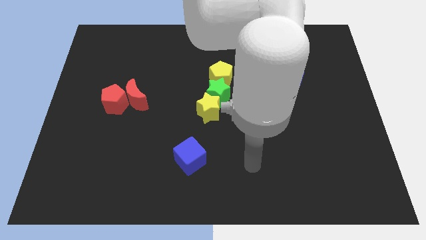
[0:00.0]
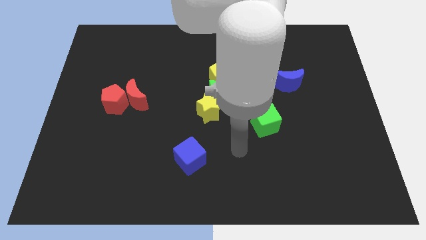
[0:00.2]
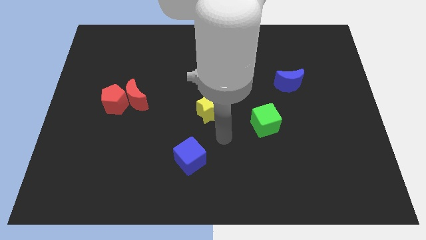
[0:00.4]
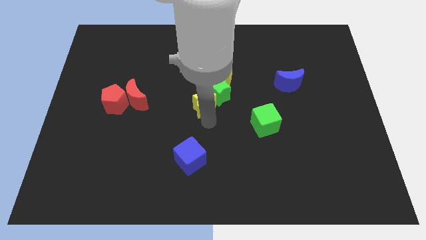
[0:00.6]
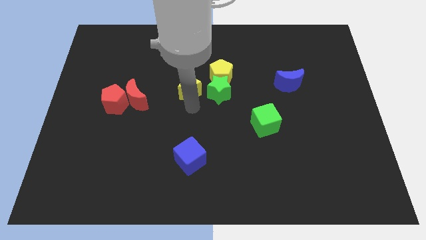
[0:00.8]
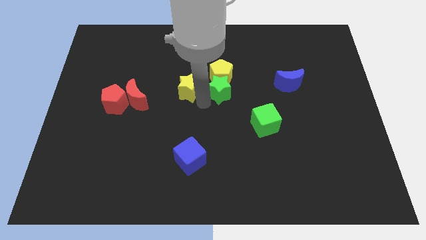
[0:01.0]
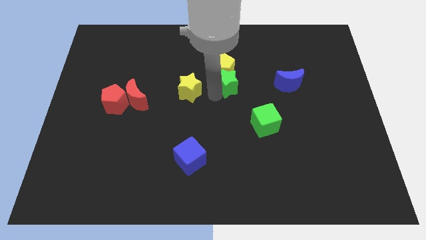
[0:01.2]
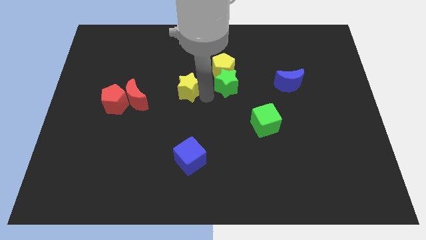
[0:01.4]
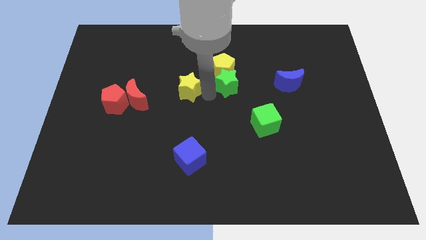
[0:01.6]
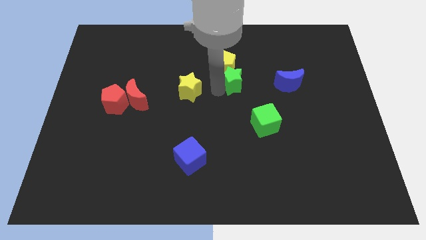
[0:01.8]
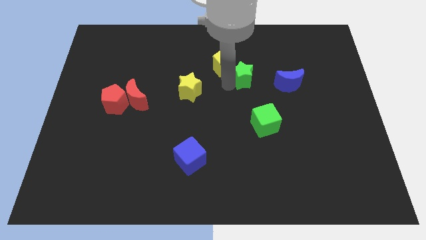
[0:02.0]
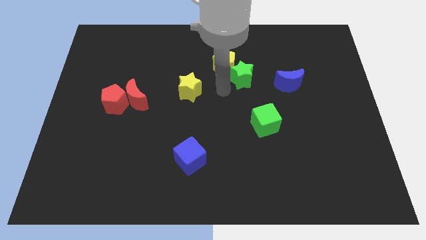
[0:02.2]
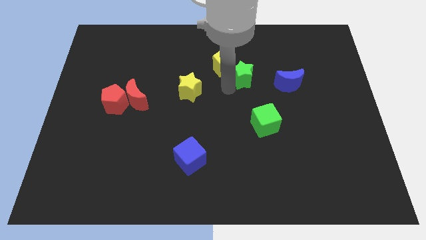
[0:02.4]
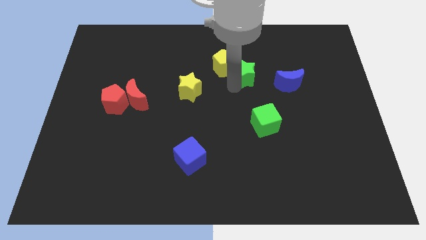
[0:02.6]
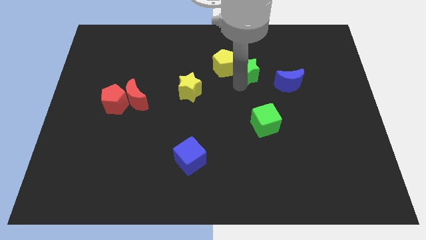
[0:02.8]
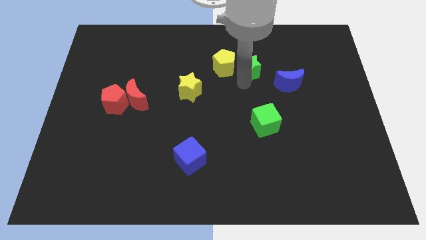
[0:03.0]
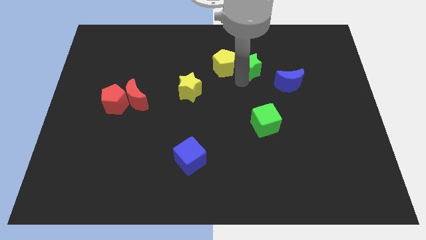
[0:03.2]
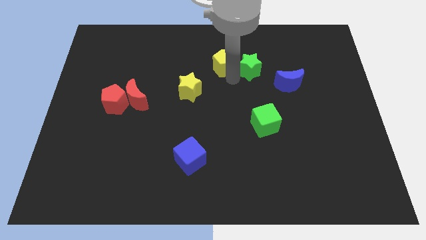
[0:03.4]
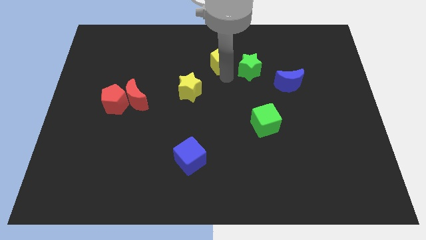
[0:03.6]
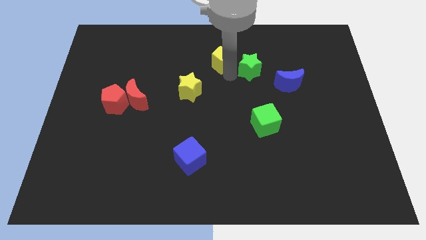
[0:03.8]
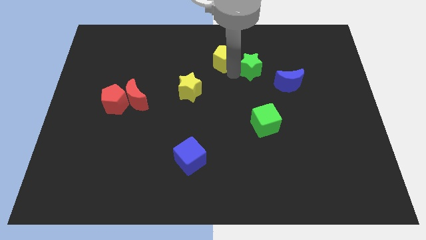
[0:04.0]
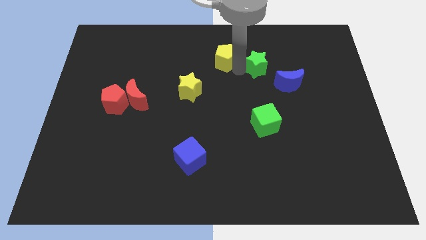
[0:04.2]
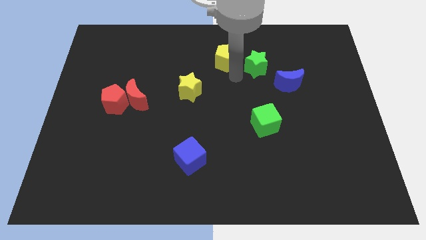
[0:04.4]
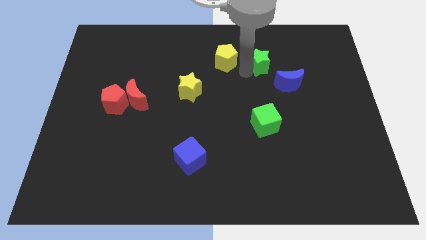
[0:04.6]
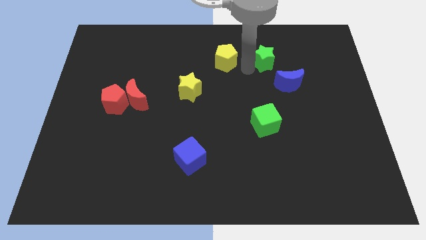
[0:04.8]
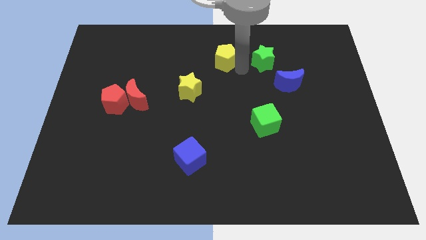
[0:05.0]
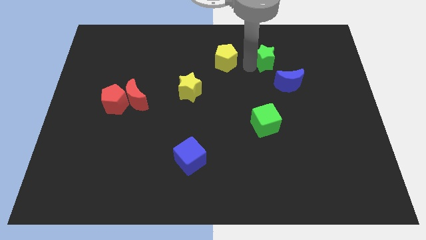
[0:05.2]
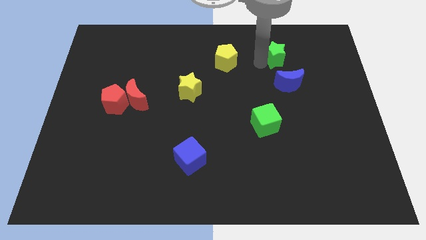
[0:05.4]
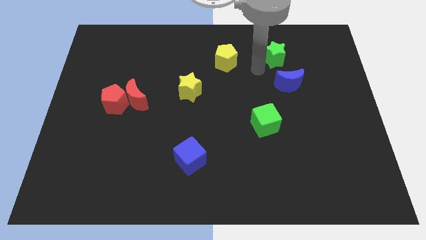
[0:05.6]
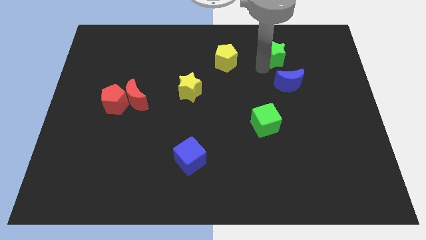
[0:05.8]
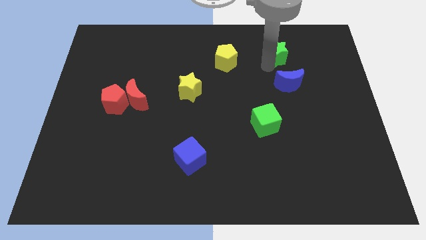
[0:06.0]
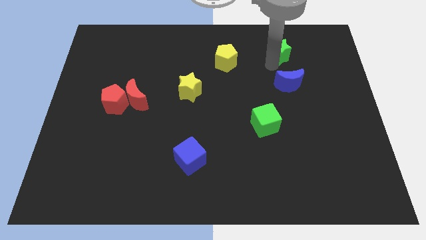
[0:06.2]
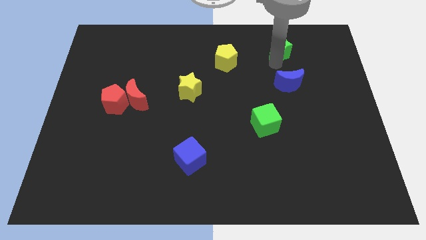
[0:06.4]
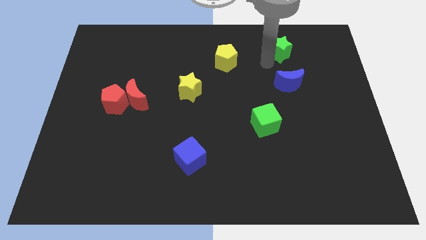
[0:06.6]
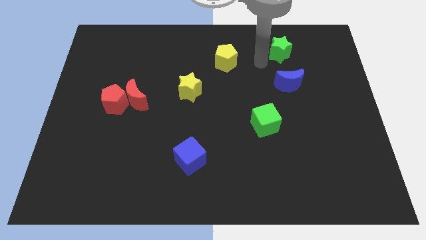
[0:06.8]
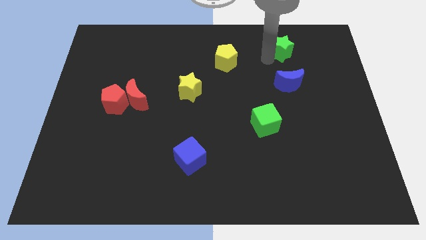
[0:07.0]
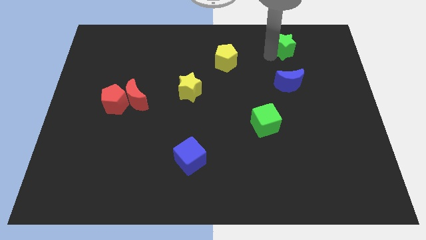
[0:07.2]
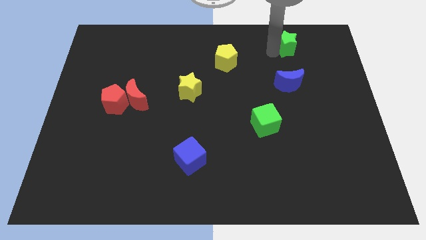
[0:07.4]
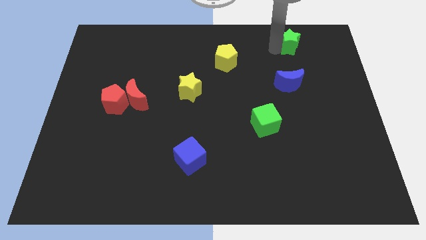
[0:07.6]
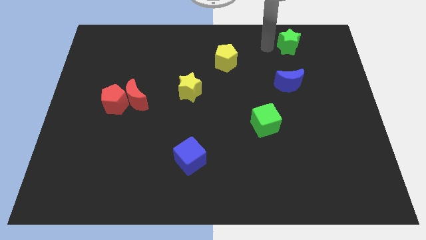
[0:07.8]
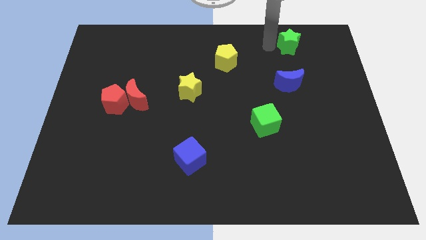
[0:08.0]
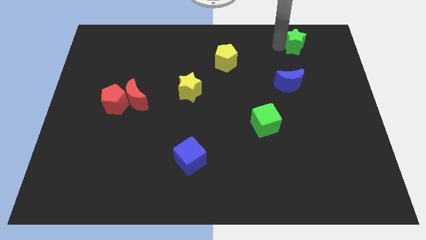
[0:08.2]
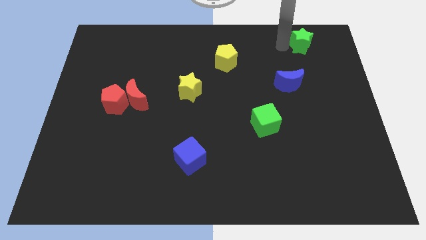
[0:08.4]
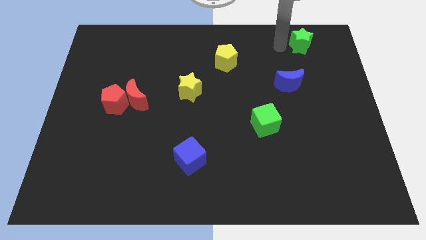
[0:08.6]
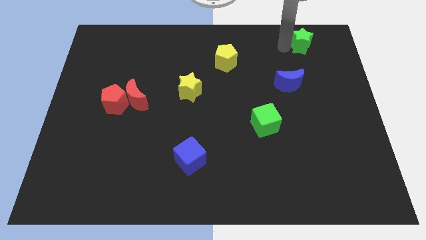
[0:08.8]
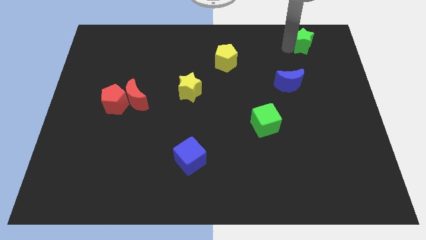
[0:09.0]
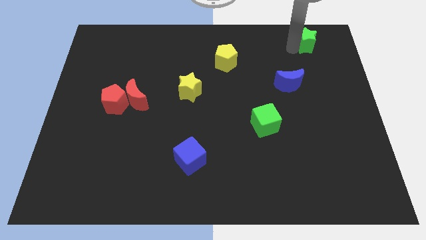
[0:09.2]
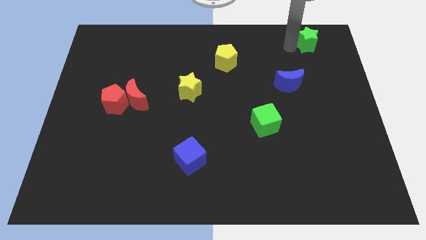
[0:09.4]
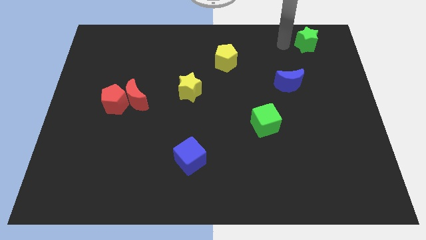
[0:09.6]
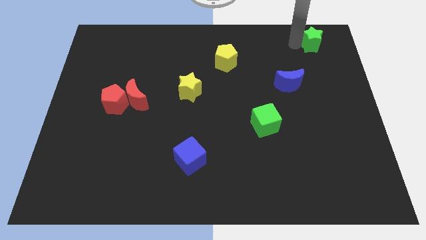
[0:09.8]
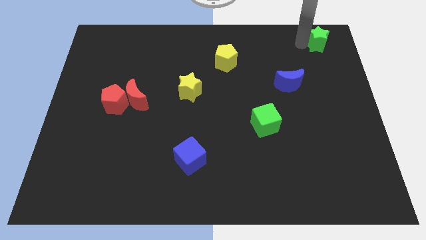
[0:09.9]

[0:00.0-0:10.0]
slide the green star to the upper right corner

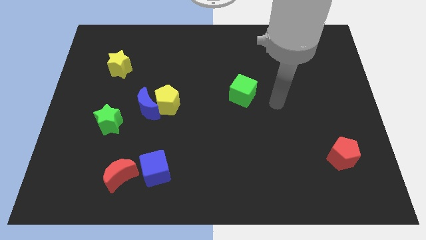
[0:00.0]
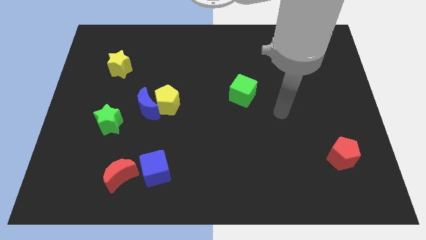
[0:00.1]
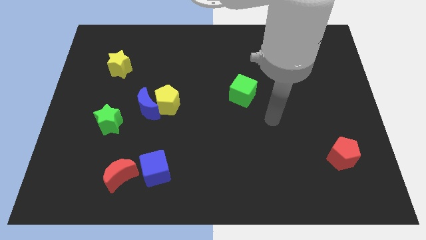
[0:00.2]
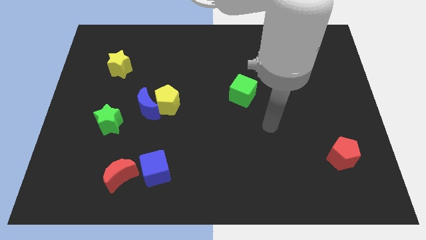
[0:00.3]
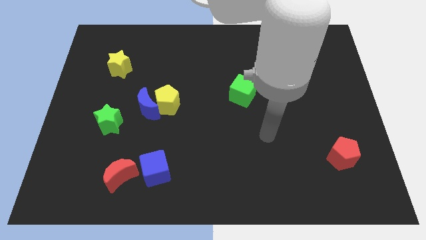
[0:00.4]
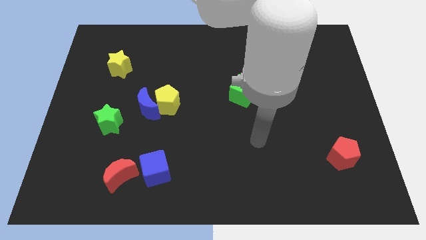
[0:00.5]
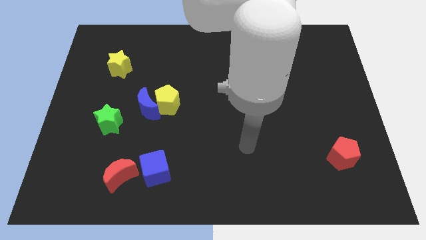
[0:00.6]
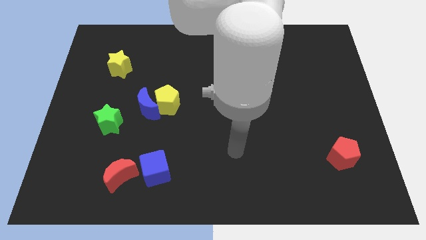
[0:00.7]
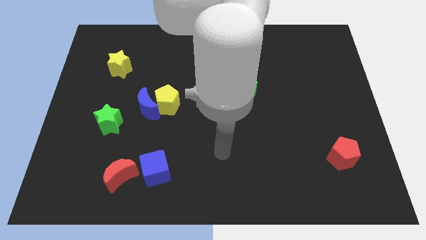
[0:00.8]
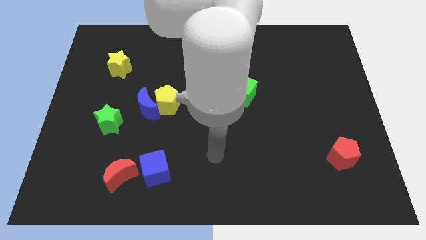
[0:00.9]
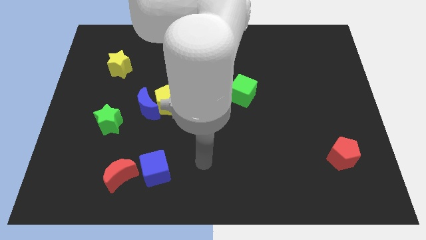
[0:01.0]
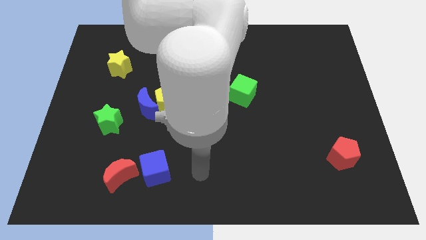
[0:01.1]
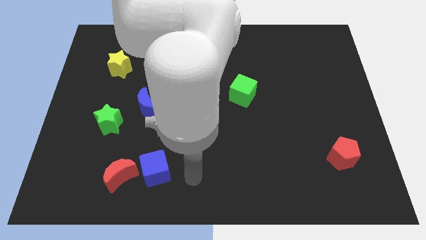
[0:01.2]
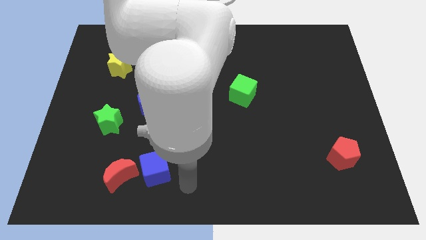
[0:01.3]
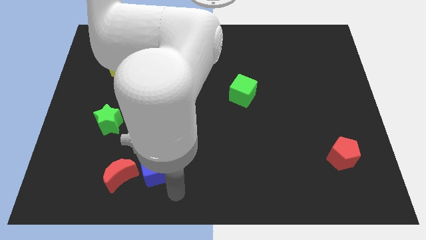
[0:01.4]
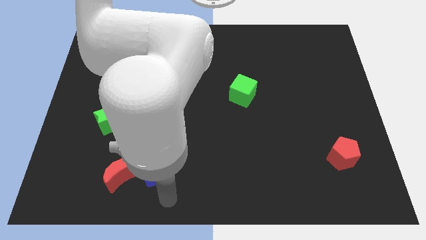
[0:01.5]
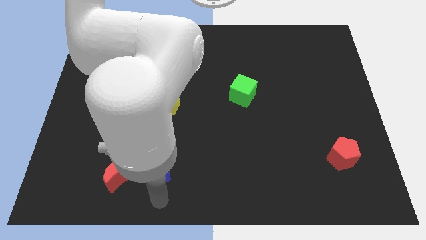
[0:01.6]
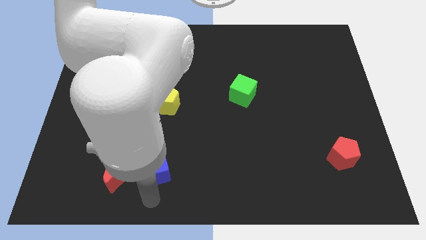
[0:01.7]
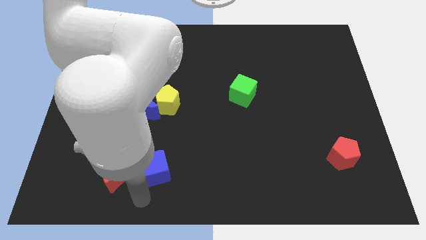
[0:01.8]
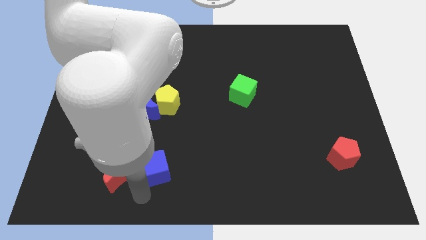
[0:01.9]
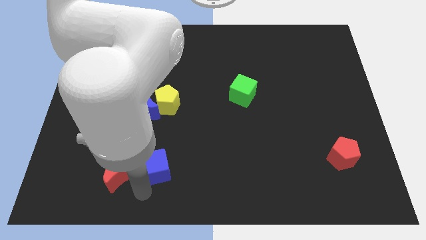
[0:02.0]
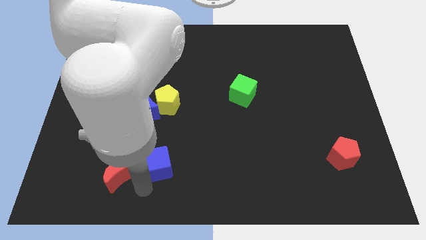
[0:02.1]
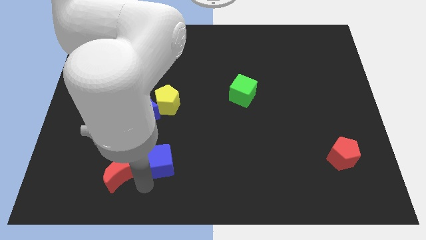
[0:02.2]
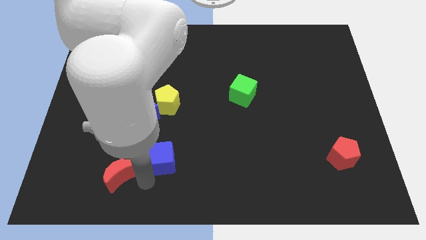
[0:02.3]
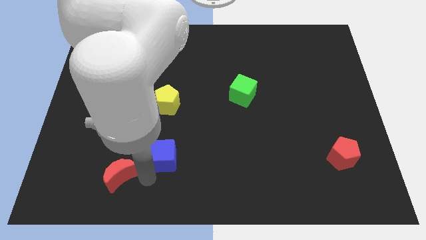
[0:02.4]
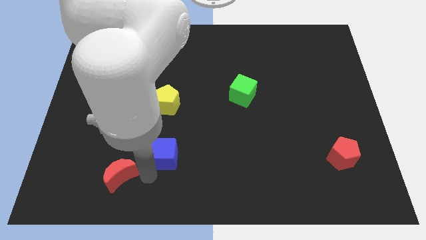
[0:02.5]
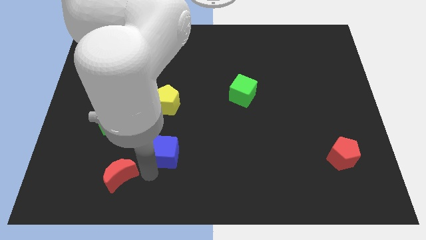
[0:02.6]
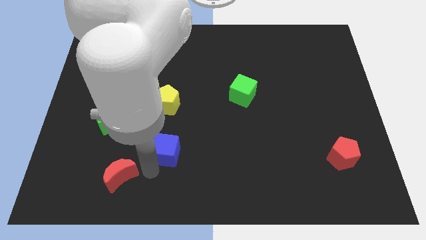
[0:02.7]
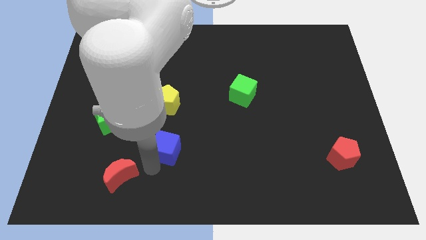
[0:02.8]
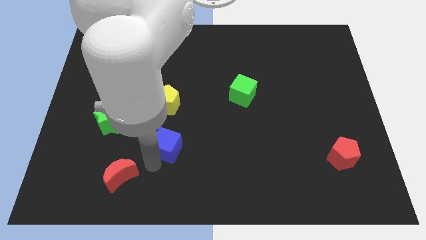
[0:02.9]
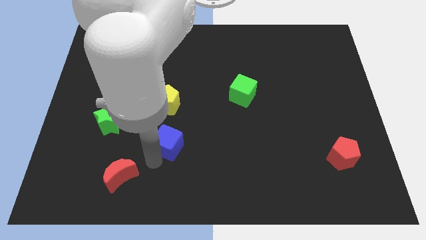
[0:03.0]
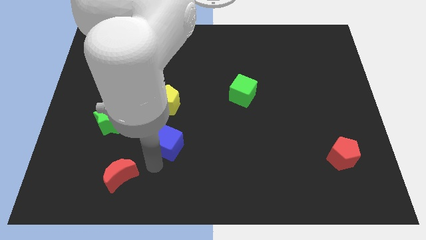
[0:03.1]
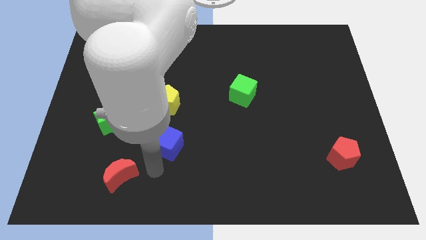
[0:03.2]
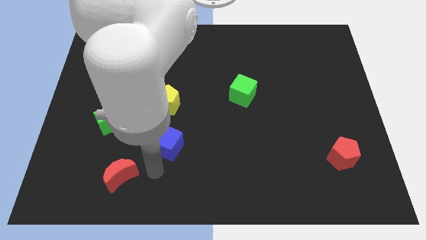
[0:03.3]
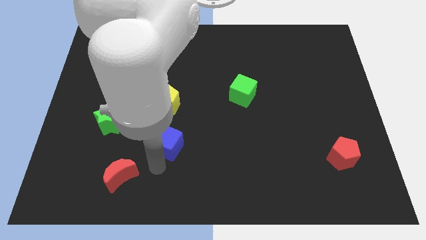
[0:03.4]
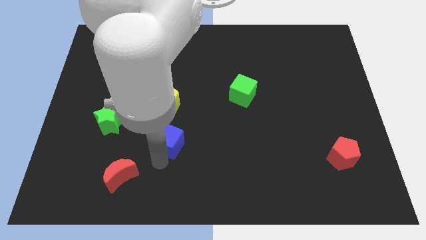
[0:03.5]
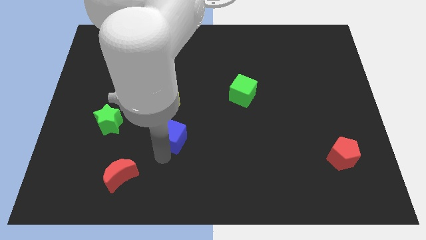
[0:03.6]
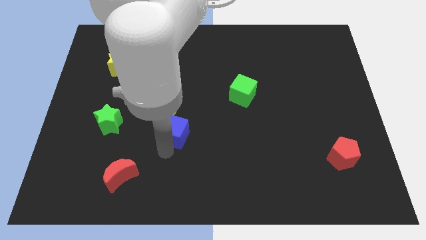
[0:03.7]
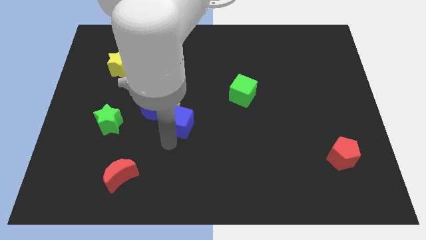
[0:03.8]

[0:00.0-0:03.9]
move the blue cube to the center of the board

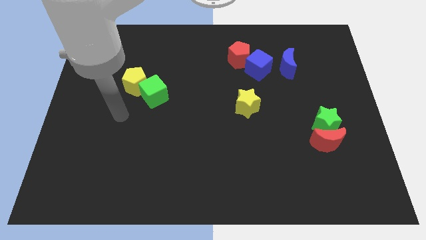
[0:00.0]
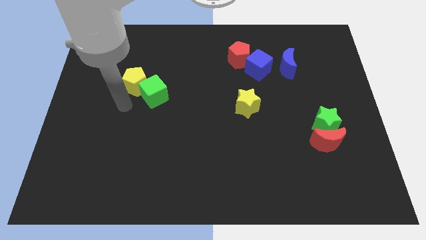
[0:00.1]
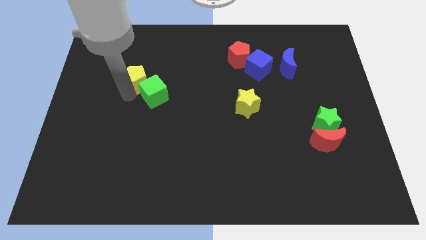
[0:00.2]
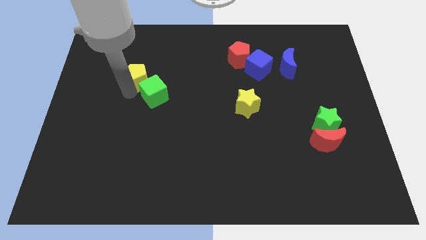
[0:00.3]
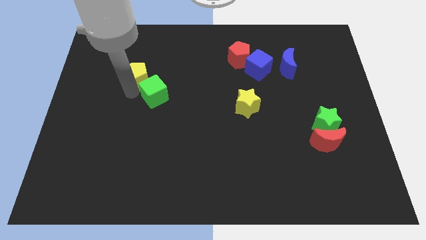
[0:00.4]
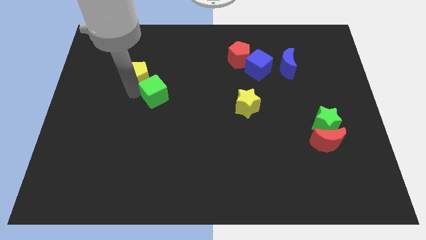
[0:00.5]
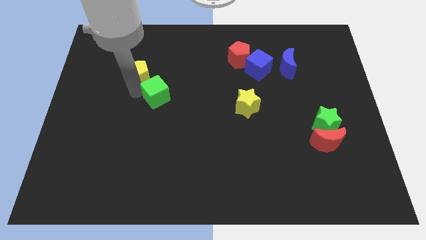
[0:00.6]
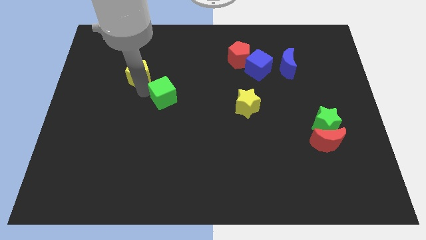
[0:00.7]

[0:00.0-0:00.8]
put the green cube to the center of the board
